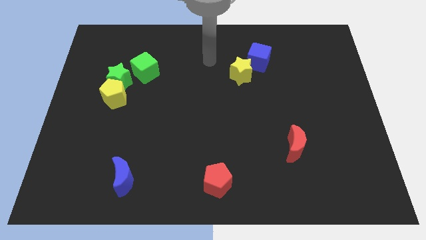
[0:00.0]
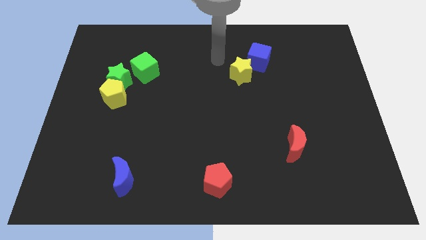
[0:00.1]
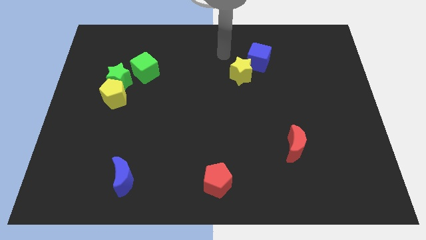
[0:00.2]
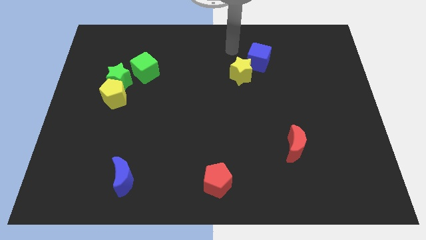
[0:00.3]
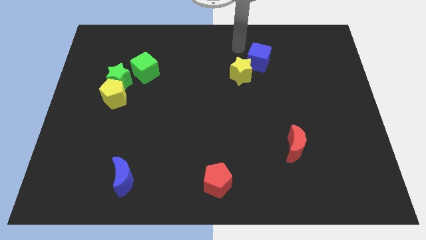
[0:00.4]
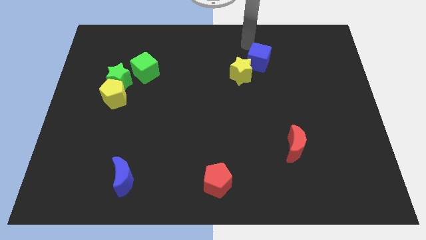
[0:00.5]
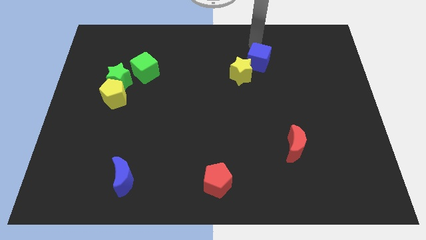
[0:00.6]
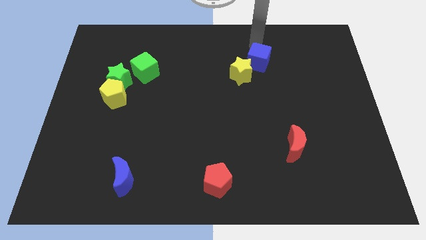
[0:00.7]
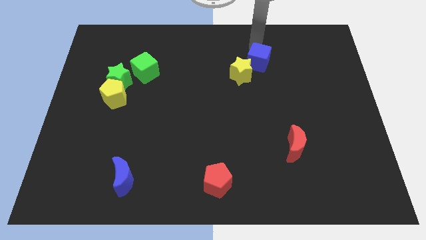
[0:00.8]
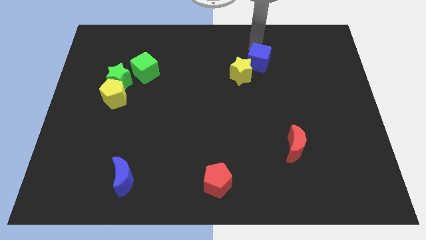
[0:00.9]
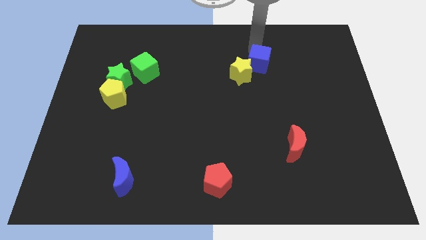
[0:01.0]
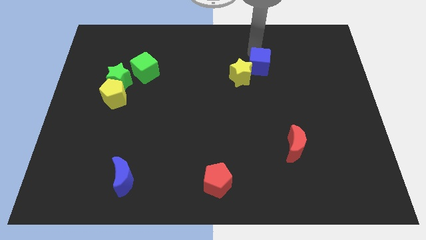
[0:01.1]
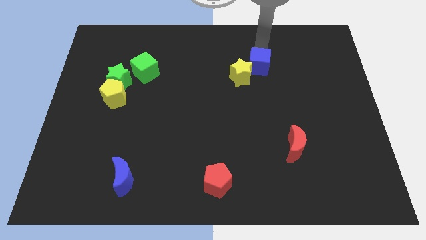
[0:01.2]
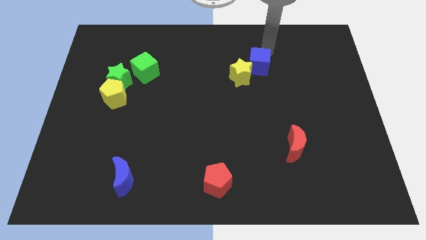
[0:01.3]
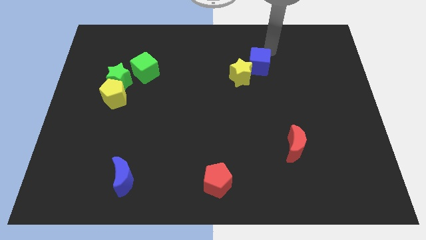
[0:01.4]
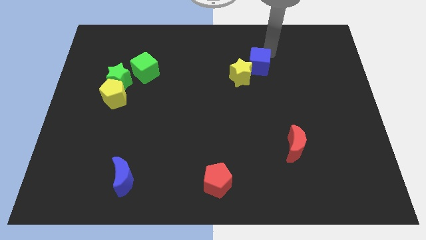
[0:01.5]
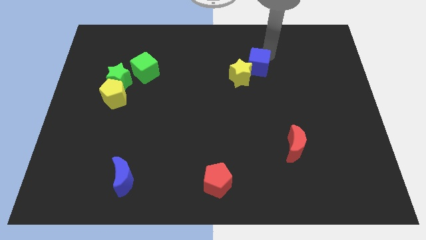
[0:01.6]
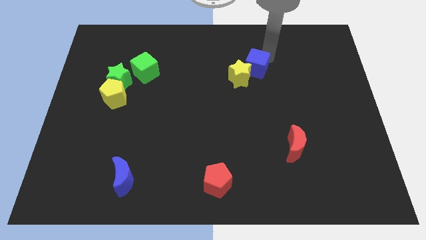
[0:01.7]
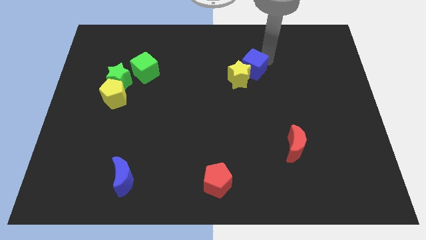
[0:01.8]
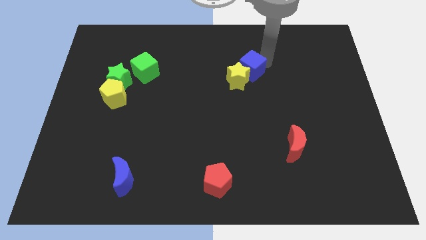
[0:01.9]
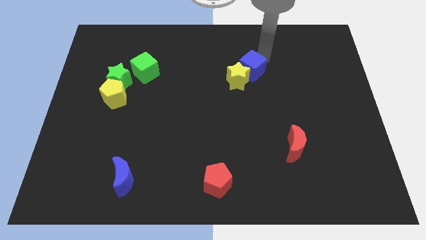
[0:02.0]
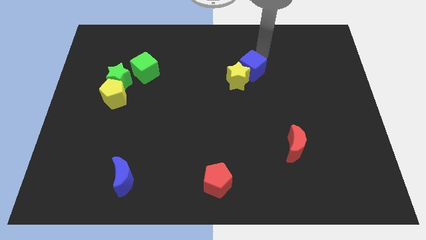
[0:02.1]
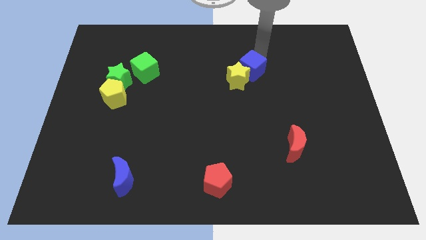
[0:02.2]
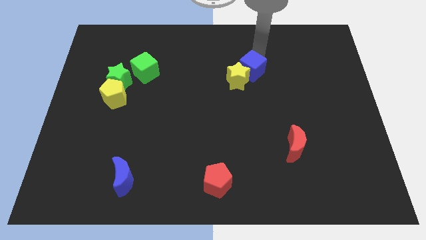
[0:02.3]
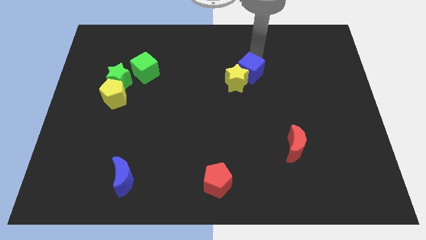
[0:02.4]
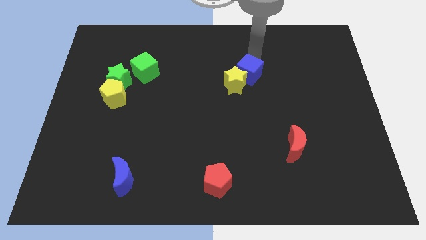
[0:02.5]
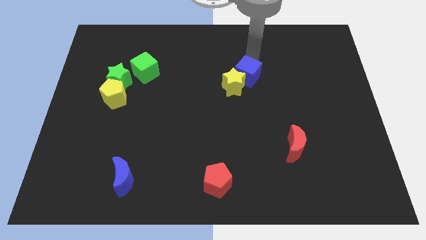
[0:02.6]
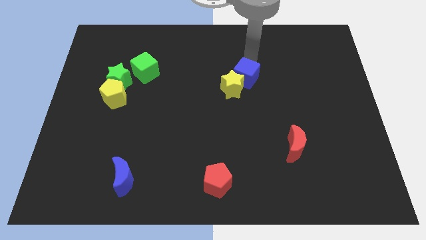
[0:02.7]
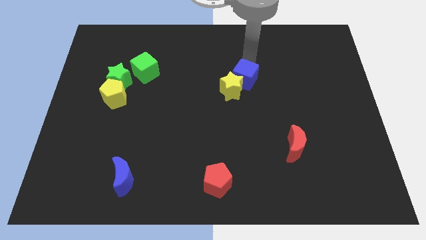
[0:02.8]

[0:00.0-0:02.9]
slide the blue cube a bit downwards and then left

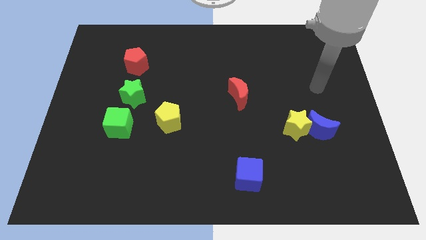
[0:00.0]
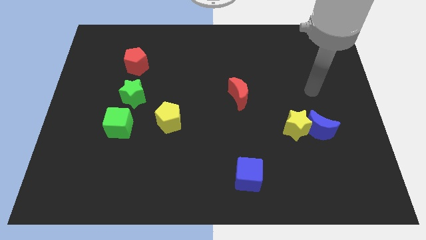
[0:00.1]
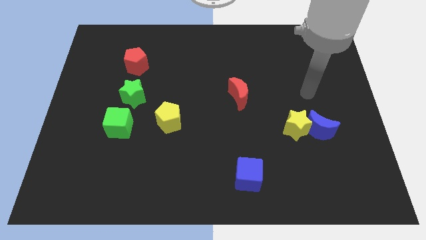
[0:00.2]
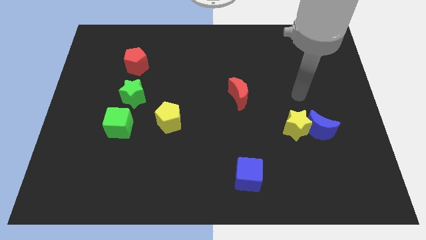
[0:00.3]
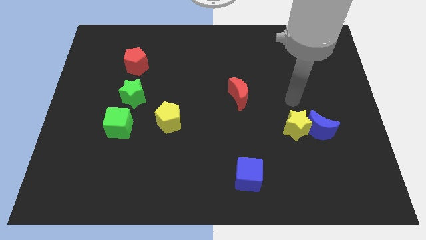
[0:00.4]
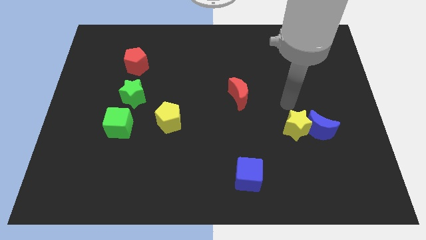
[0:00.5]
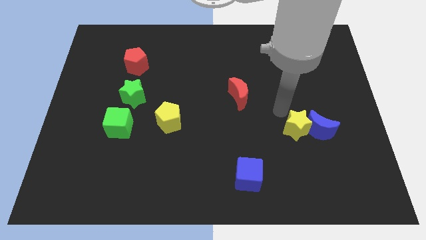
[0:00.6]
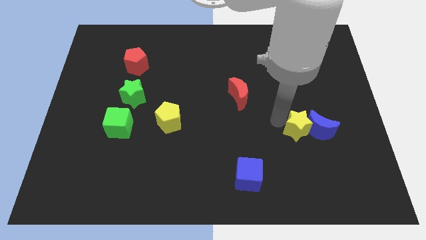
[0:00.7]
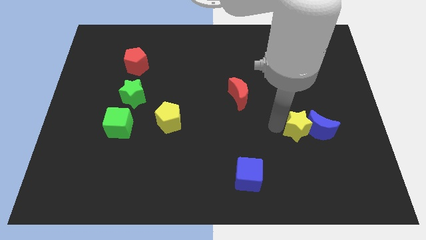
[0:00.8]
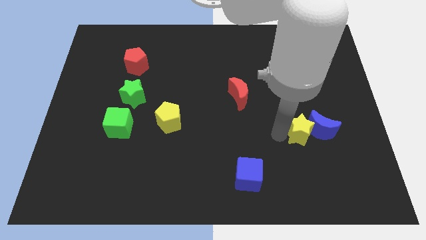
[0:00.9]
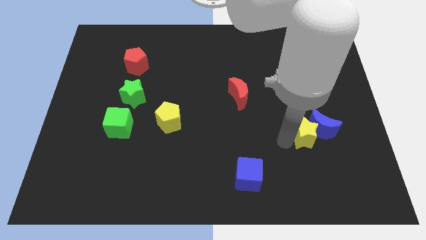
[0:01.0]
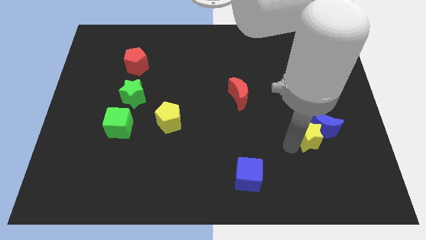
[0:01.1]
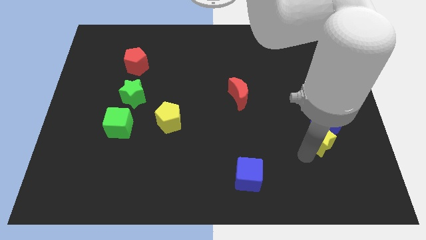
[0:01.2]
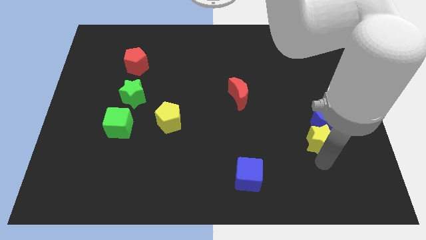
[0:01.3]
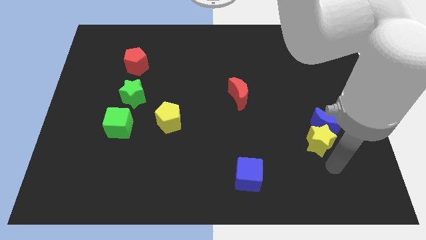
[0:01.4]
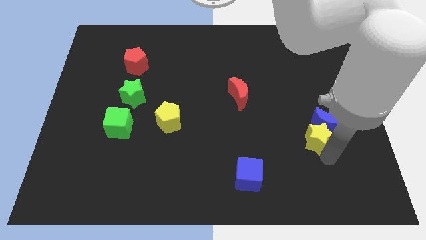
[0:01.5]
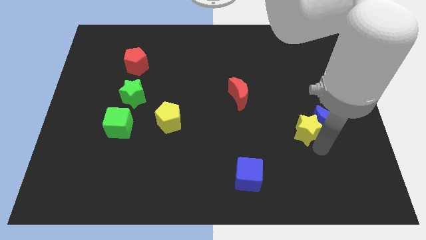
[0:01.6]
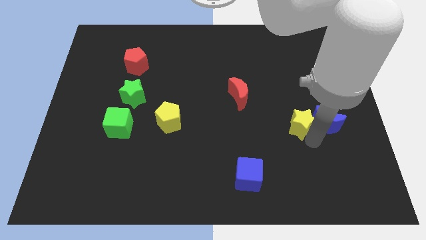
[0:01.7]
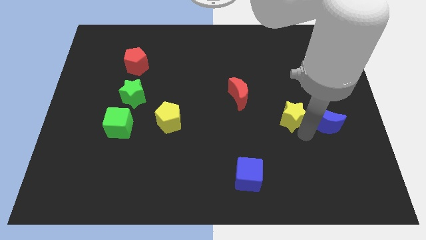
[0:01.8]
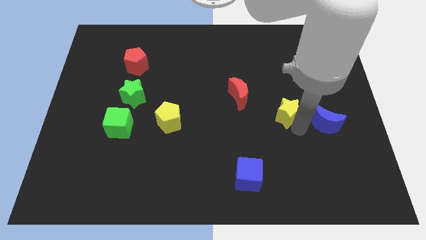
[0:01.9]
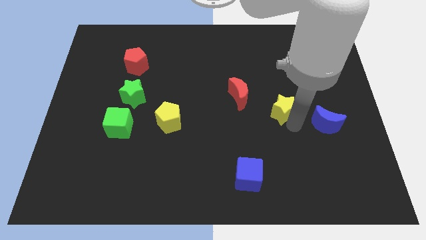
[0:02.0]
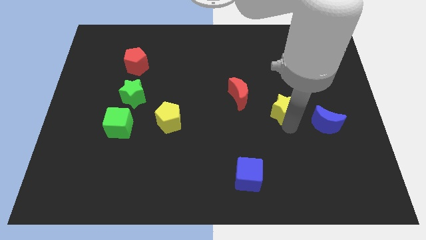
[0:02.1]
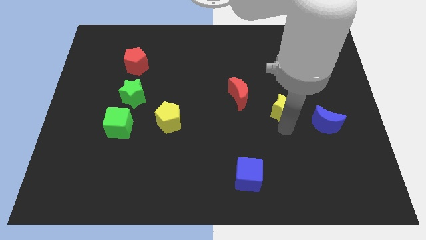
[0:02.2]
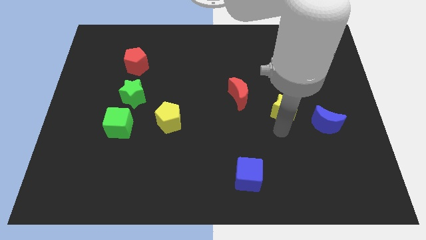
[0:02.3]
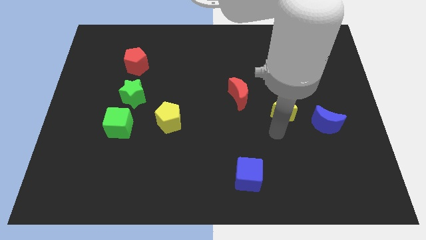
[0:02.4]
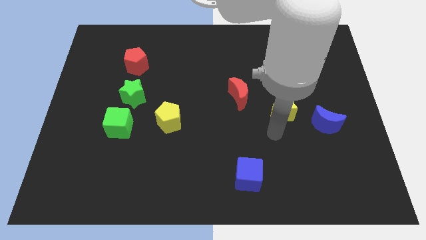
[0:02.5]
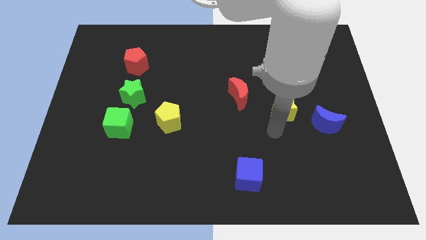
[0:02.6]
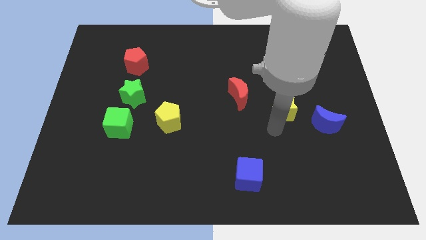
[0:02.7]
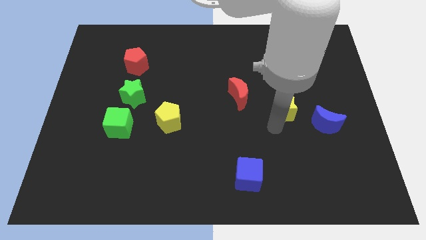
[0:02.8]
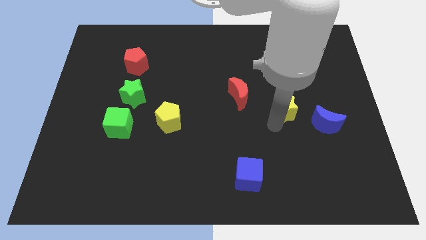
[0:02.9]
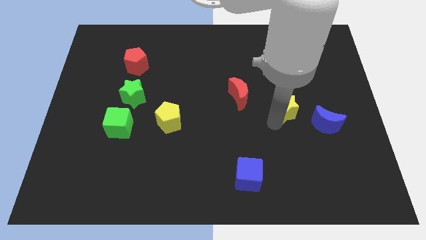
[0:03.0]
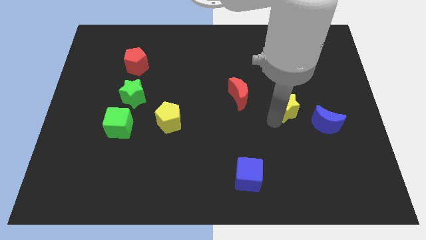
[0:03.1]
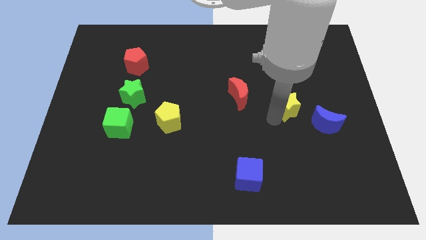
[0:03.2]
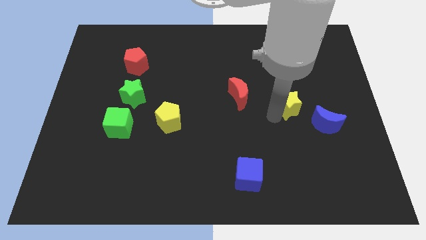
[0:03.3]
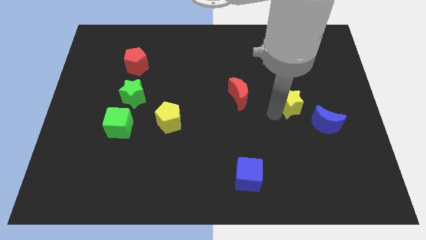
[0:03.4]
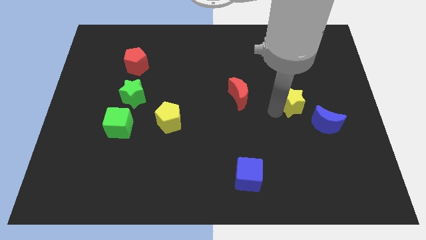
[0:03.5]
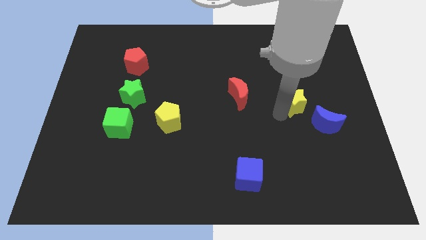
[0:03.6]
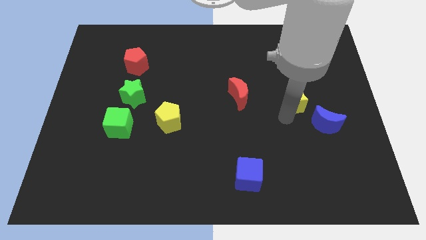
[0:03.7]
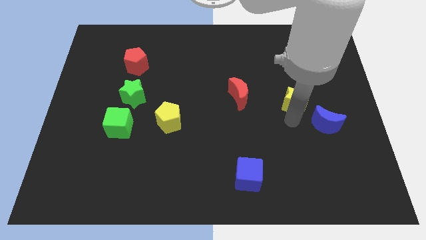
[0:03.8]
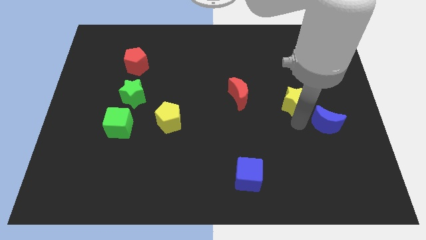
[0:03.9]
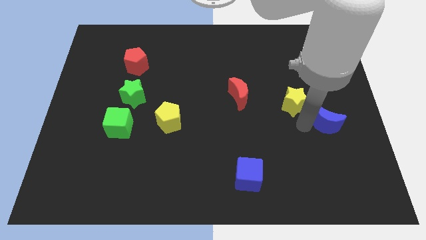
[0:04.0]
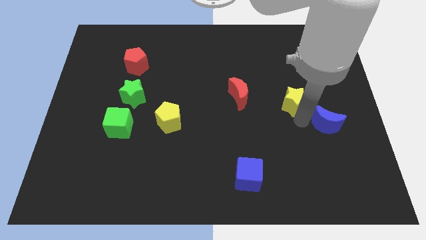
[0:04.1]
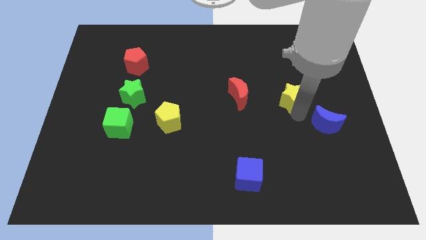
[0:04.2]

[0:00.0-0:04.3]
push the yellow star a little bit up

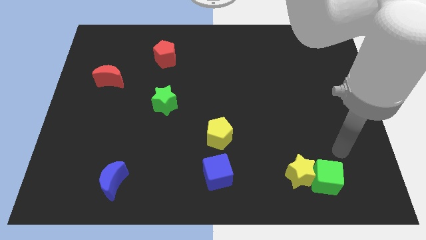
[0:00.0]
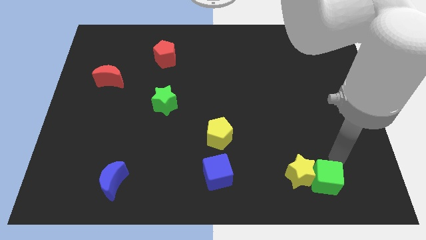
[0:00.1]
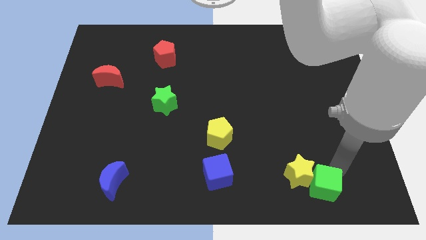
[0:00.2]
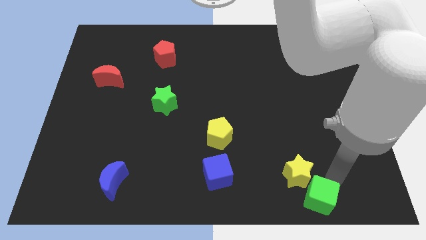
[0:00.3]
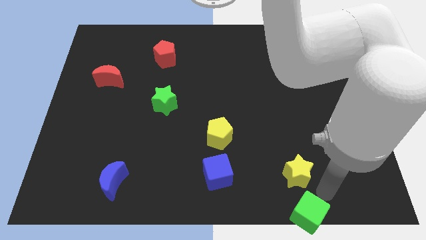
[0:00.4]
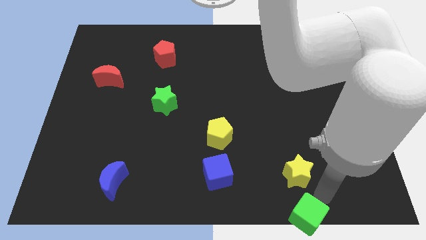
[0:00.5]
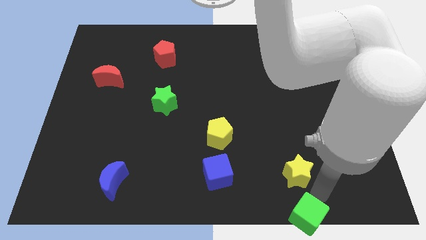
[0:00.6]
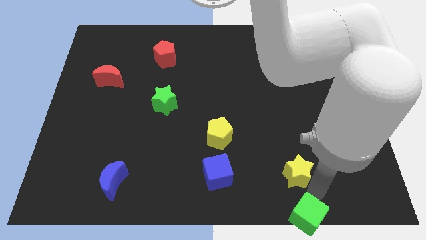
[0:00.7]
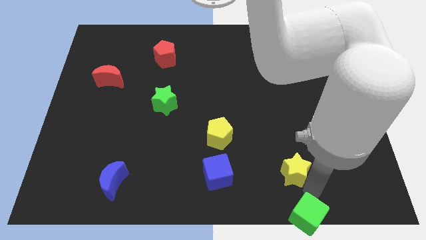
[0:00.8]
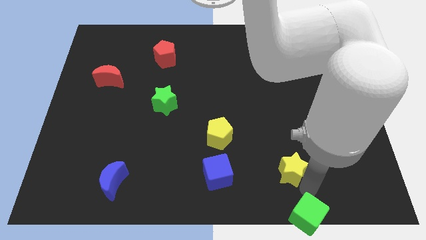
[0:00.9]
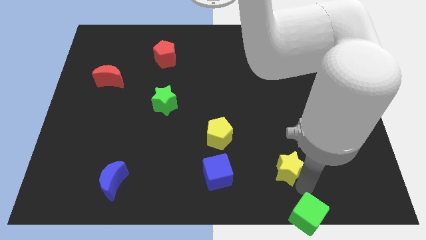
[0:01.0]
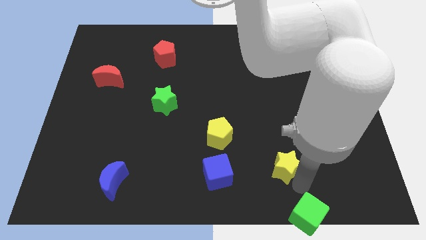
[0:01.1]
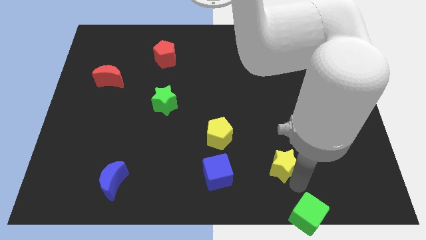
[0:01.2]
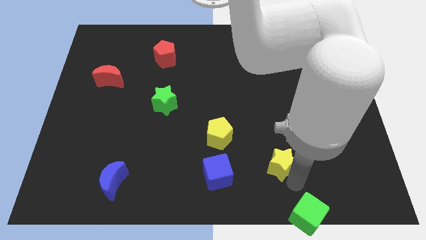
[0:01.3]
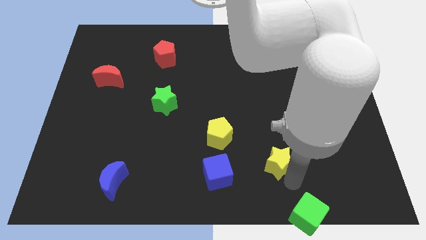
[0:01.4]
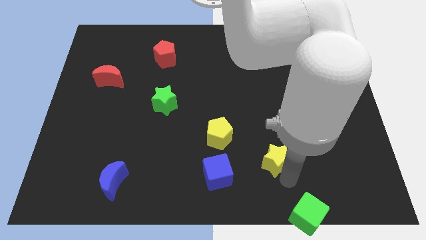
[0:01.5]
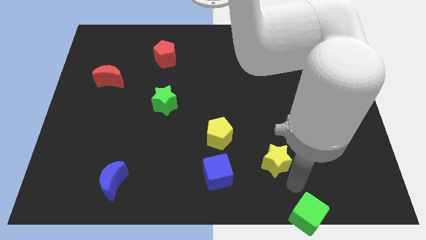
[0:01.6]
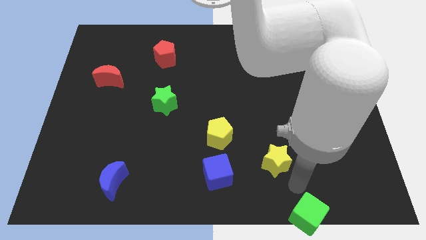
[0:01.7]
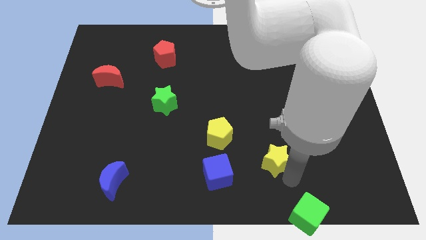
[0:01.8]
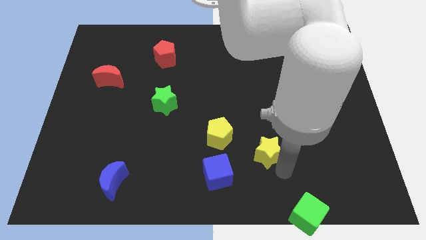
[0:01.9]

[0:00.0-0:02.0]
push the yellow star diagonally up and left slightly
